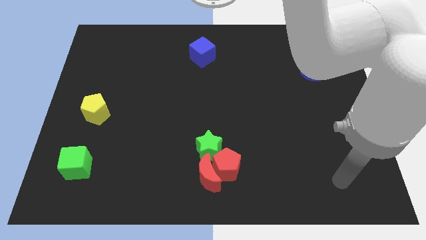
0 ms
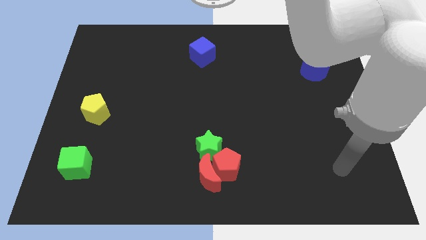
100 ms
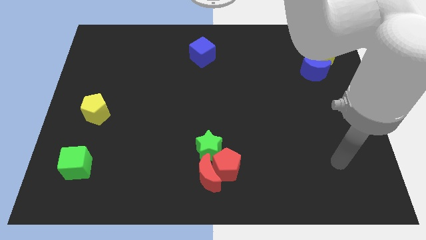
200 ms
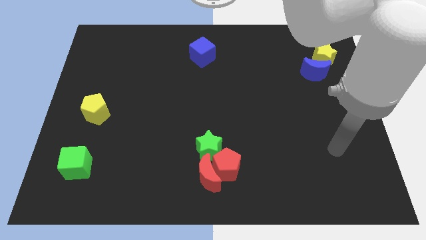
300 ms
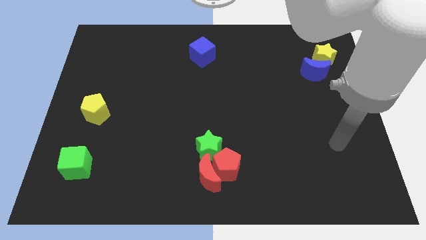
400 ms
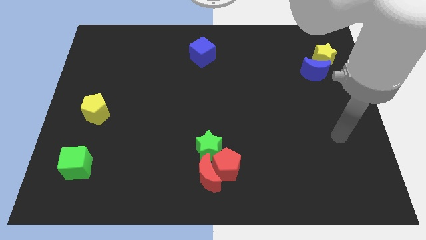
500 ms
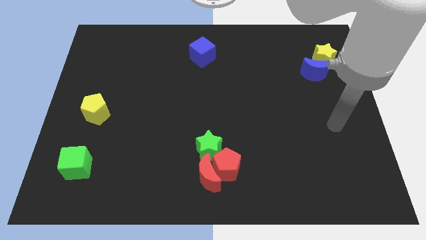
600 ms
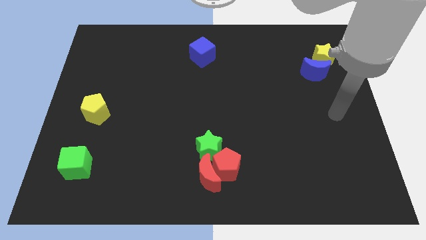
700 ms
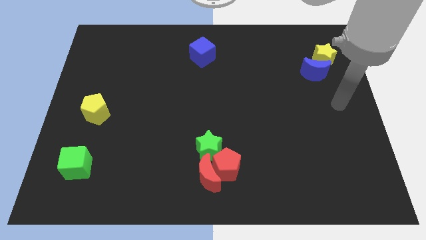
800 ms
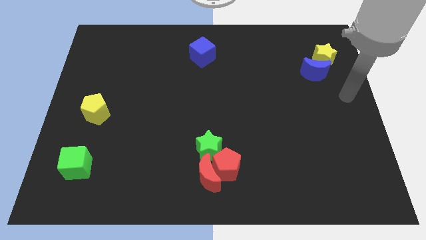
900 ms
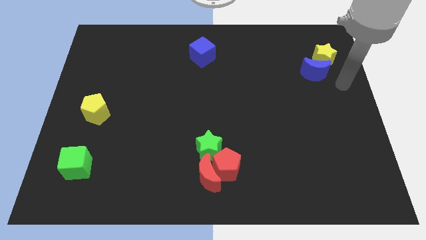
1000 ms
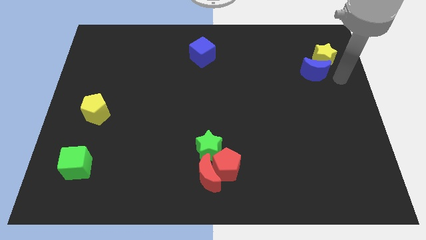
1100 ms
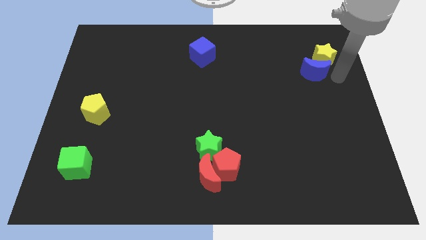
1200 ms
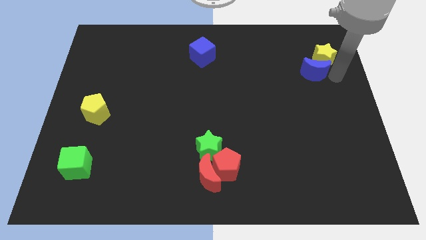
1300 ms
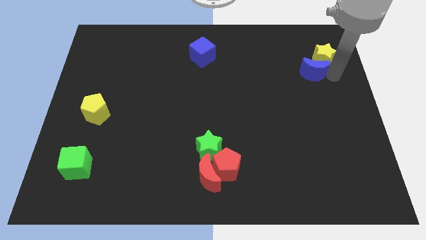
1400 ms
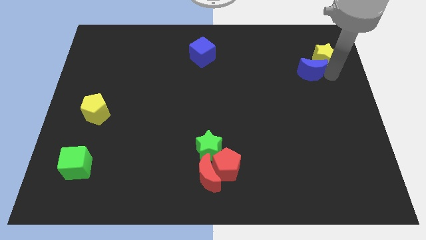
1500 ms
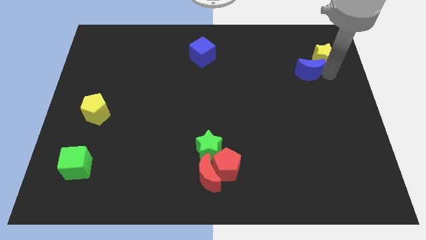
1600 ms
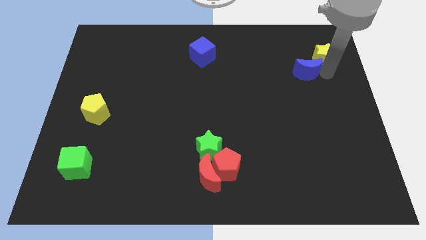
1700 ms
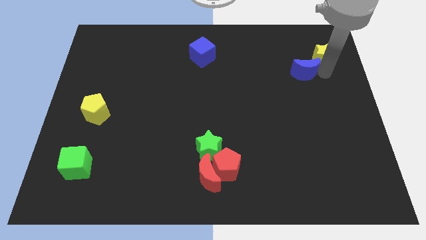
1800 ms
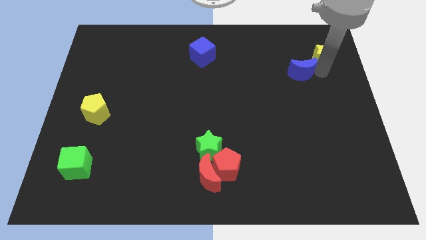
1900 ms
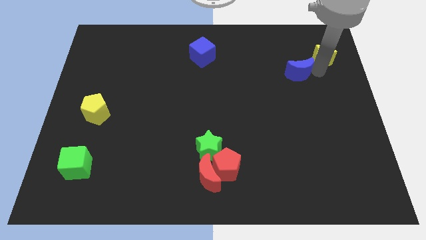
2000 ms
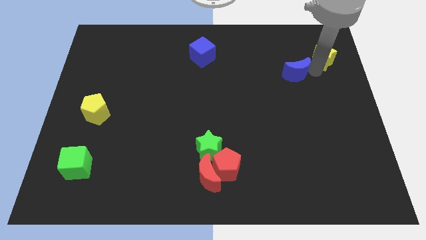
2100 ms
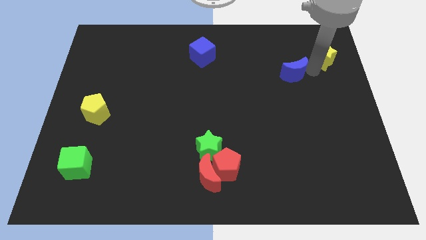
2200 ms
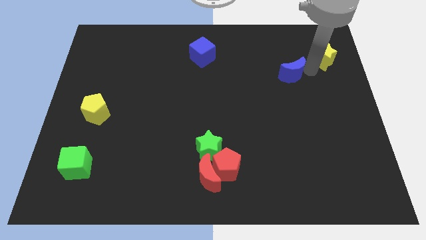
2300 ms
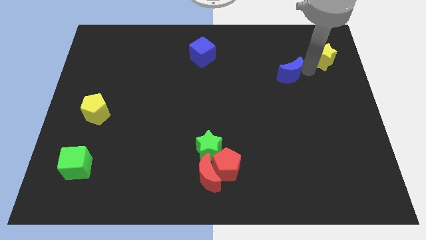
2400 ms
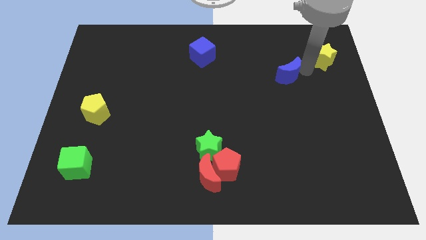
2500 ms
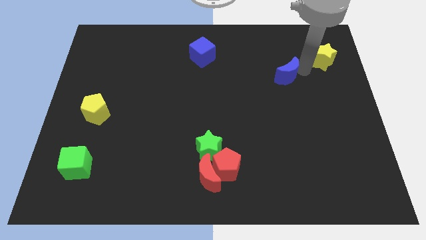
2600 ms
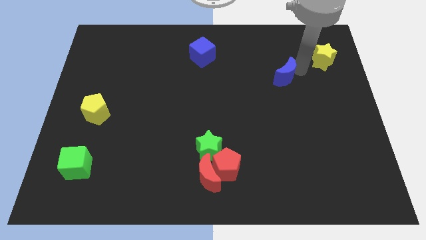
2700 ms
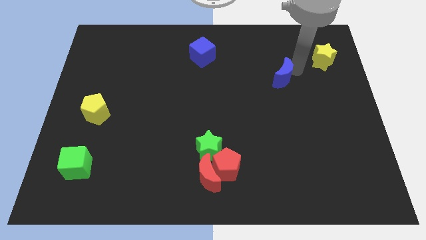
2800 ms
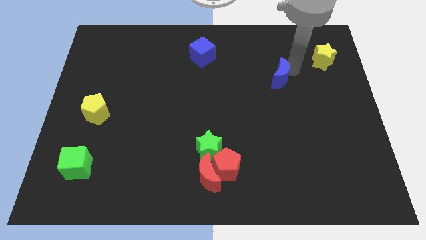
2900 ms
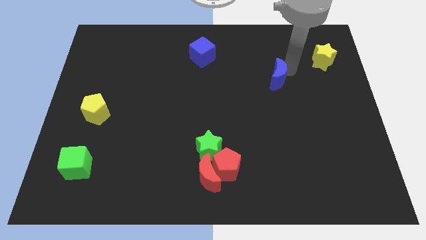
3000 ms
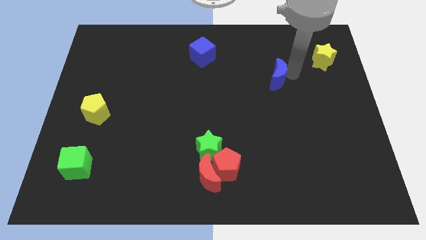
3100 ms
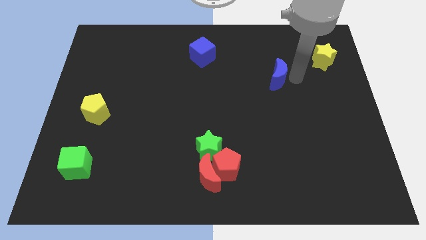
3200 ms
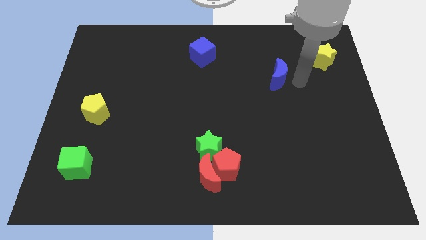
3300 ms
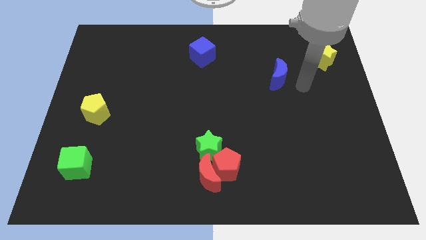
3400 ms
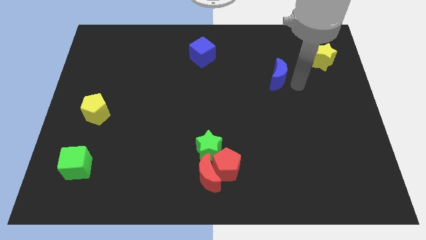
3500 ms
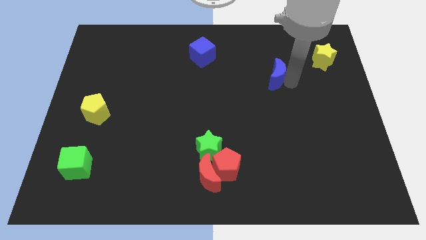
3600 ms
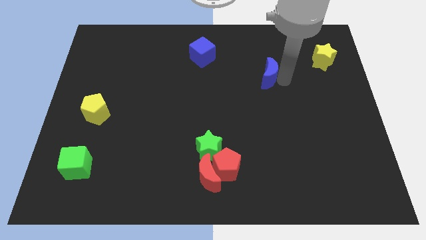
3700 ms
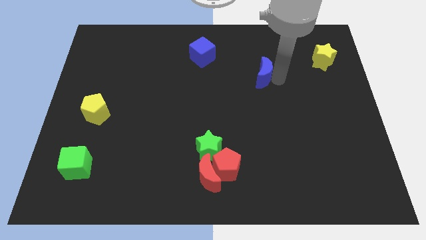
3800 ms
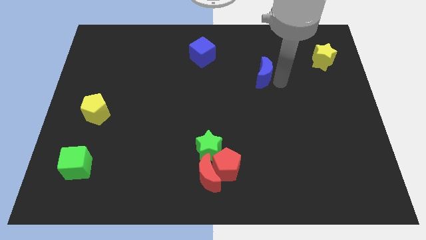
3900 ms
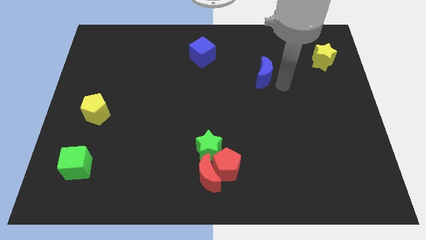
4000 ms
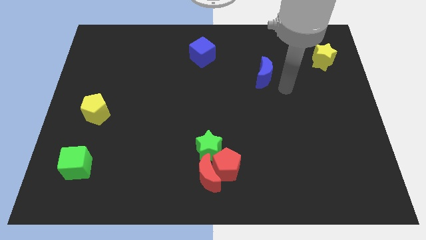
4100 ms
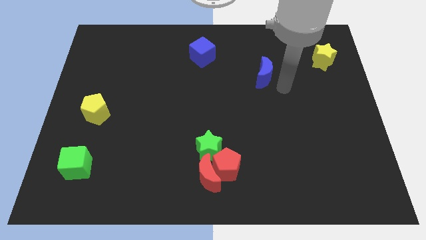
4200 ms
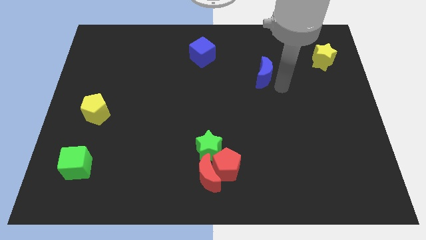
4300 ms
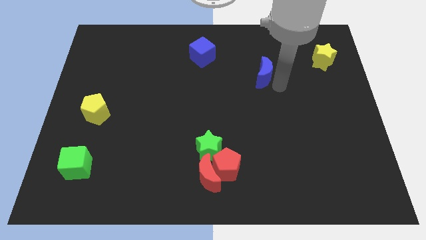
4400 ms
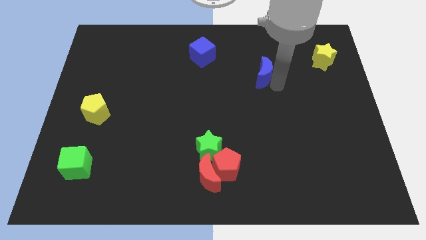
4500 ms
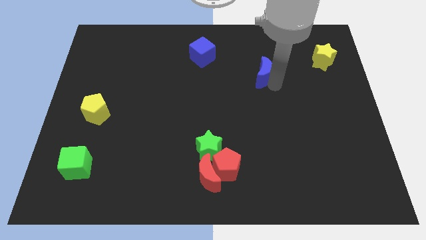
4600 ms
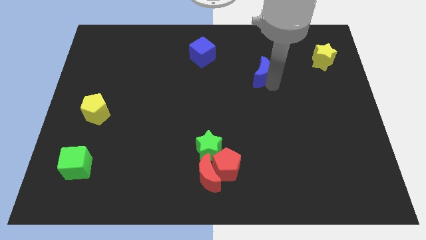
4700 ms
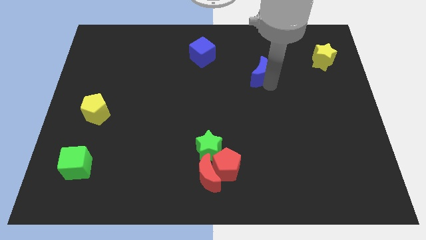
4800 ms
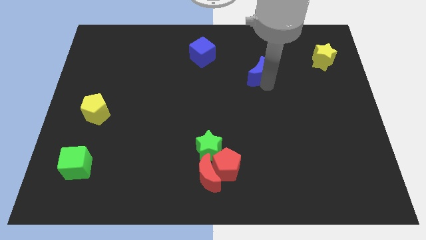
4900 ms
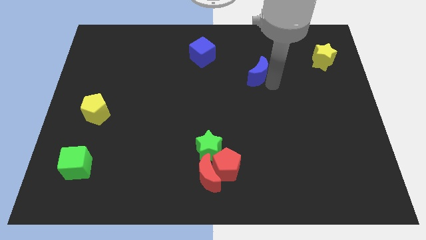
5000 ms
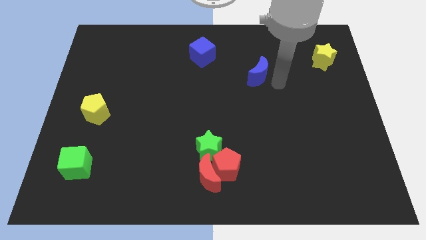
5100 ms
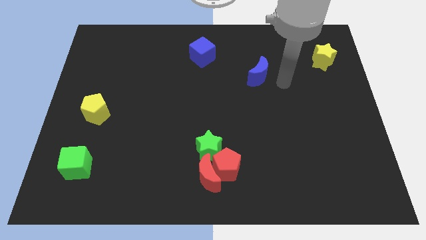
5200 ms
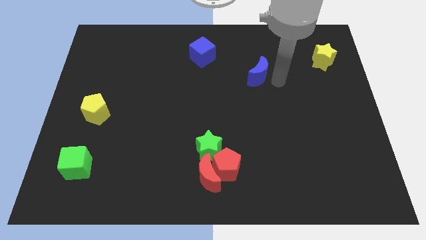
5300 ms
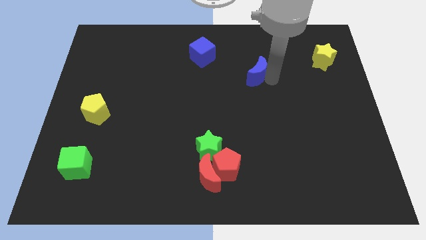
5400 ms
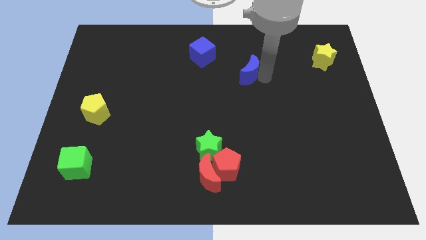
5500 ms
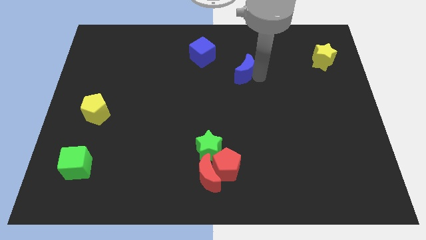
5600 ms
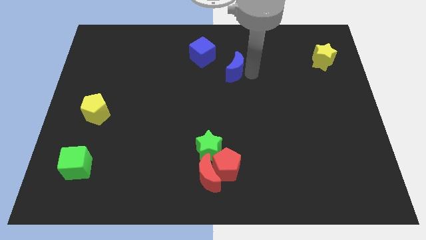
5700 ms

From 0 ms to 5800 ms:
push the blue moon to the left

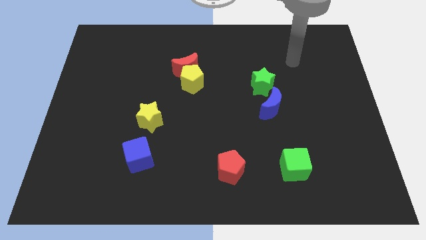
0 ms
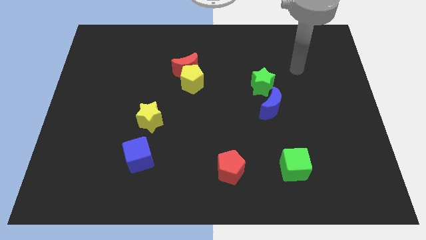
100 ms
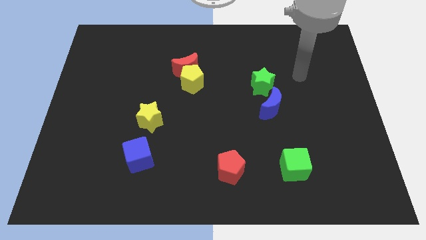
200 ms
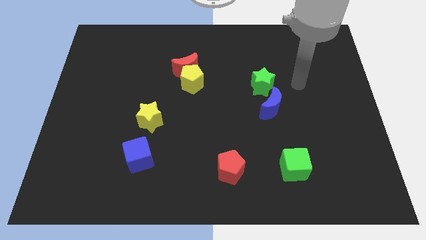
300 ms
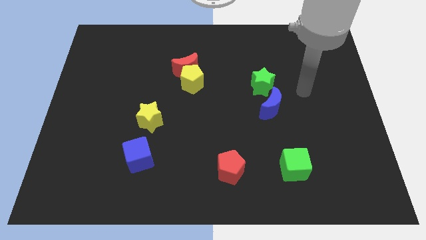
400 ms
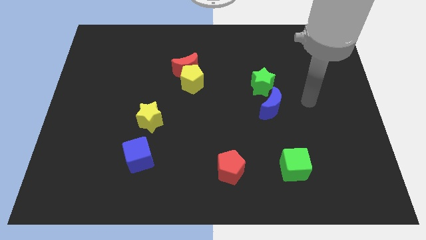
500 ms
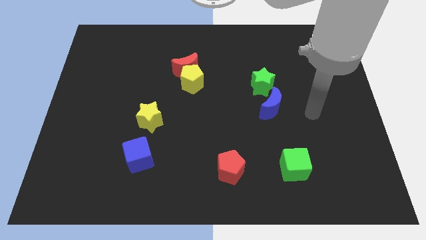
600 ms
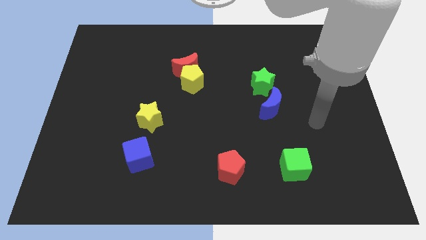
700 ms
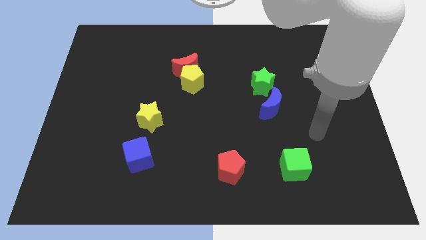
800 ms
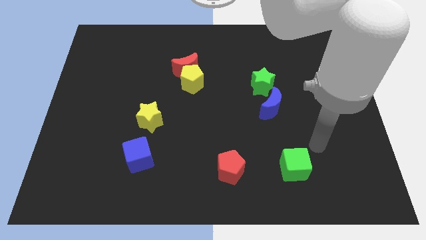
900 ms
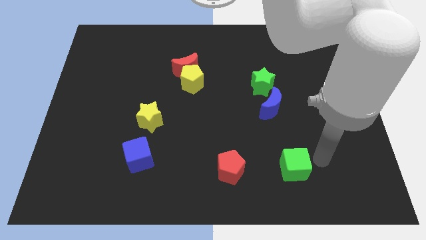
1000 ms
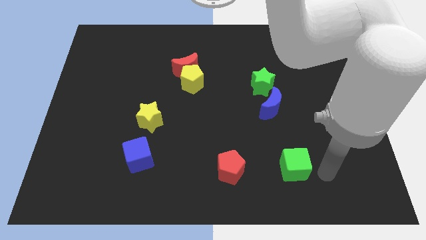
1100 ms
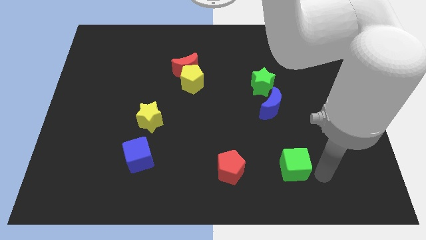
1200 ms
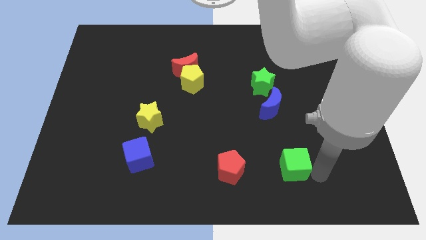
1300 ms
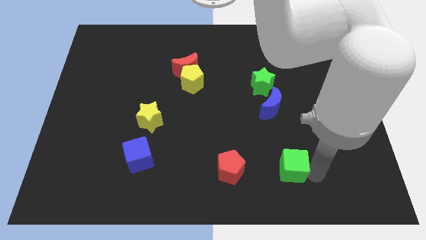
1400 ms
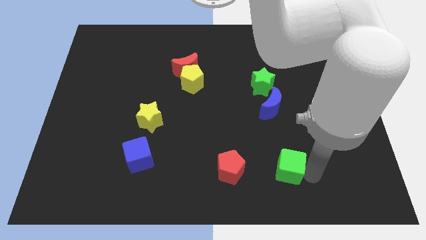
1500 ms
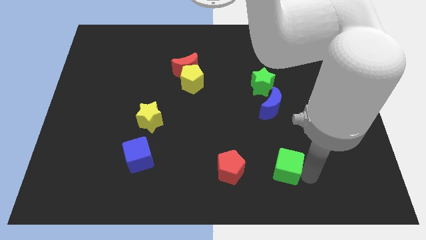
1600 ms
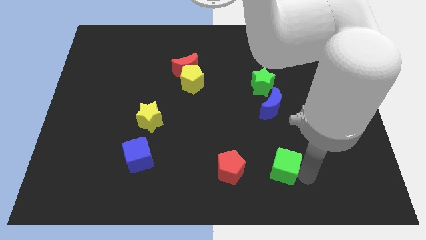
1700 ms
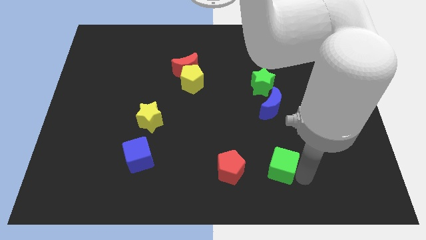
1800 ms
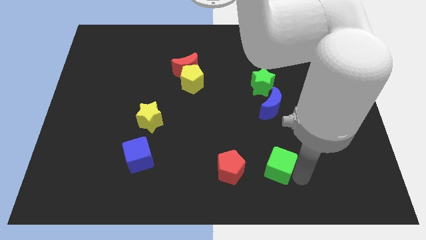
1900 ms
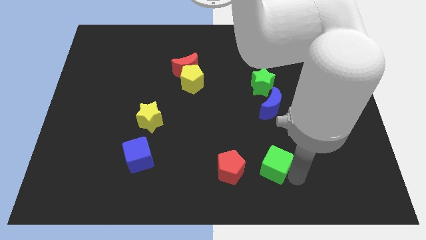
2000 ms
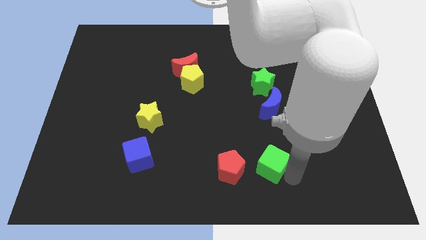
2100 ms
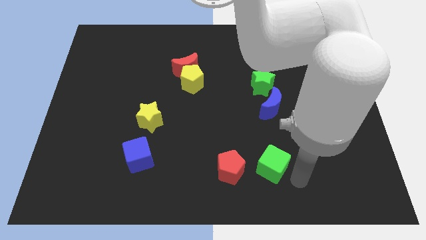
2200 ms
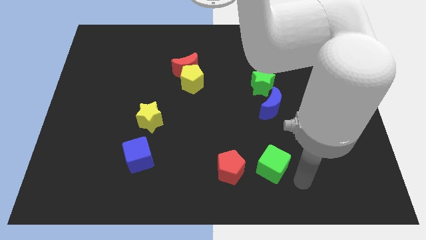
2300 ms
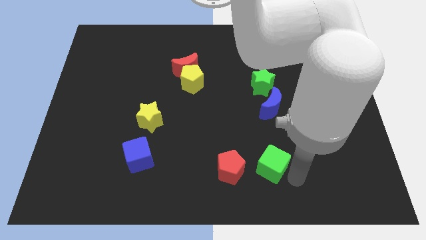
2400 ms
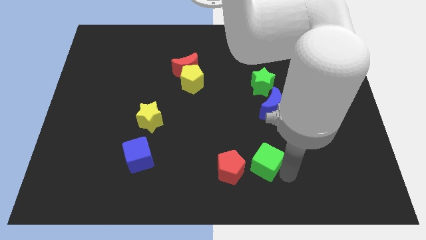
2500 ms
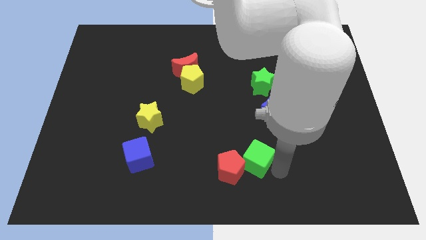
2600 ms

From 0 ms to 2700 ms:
slightly move the green cube left
